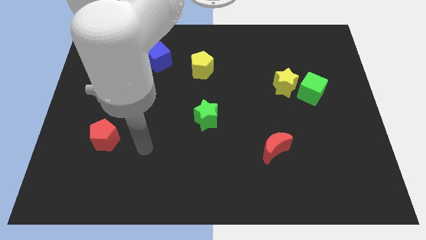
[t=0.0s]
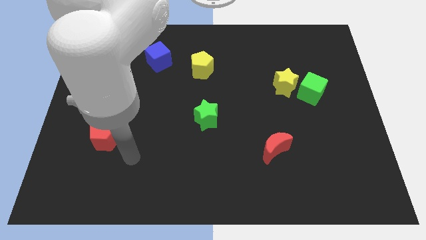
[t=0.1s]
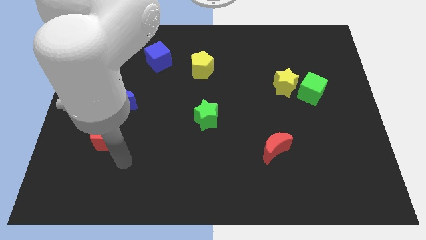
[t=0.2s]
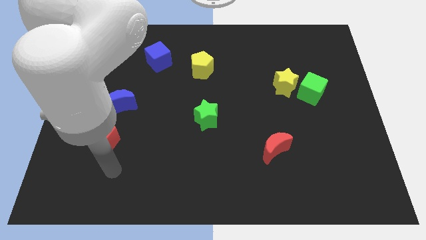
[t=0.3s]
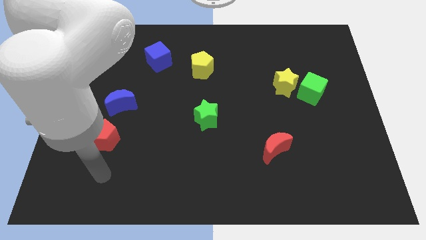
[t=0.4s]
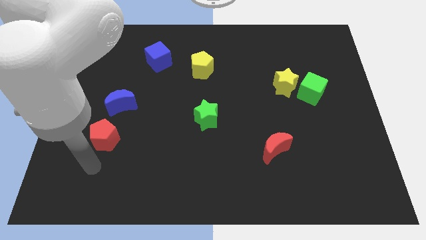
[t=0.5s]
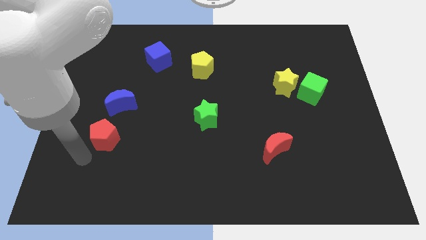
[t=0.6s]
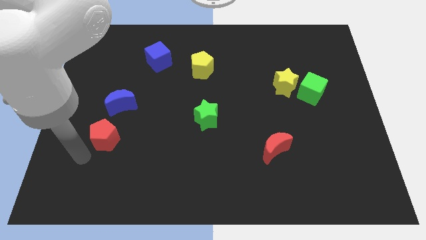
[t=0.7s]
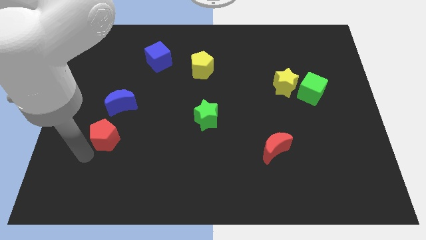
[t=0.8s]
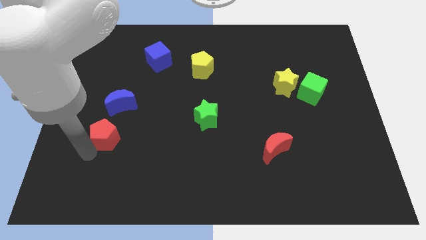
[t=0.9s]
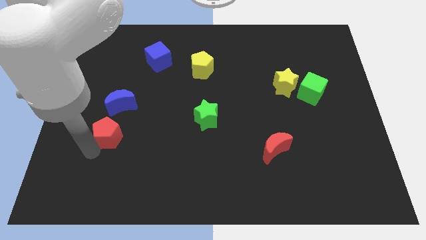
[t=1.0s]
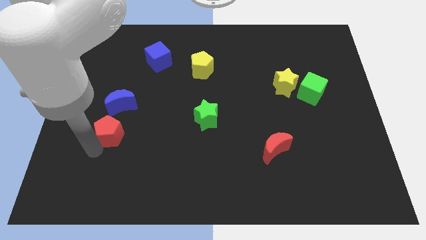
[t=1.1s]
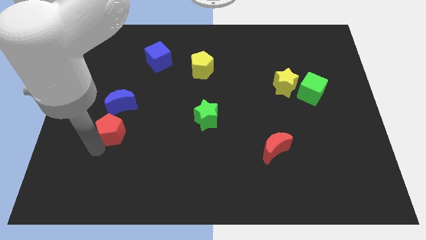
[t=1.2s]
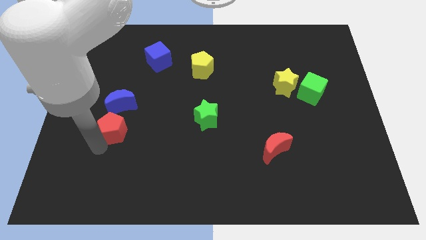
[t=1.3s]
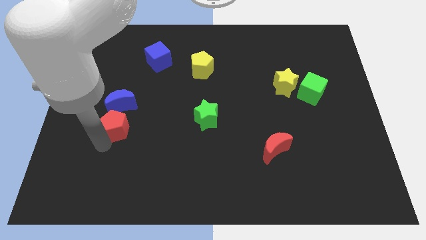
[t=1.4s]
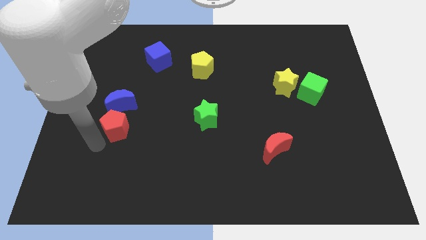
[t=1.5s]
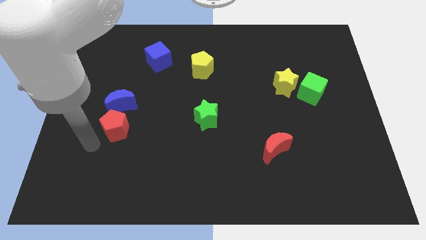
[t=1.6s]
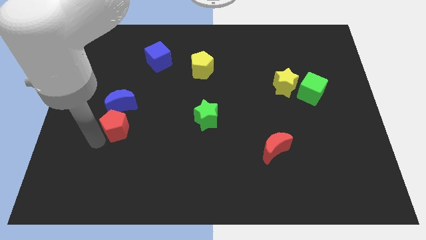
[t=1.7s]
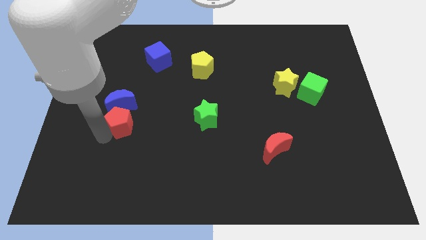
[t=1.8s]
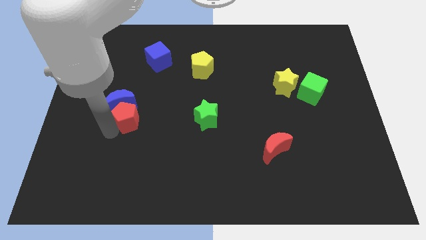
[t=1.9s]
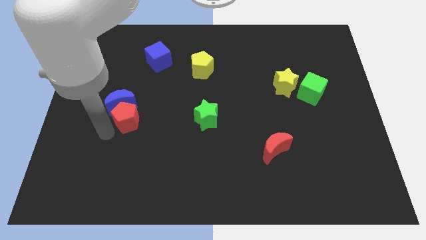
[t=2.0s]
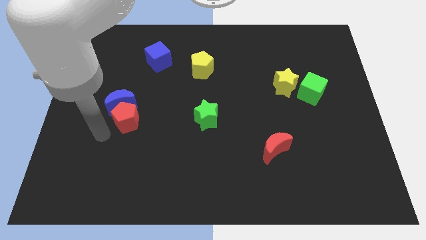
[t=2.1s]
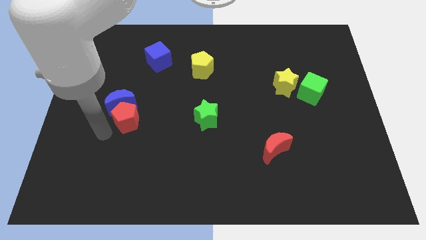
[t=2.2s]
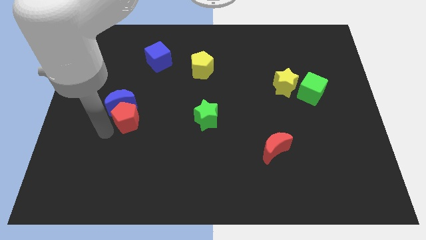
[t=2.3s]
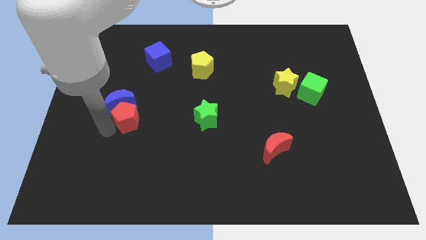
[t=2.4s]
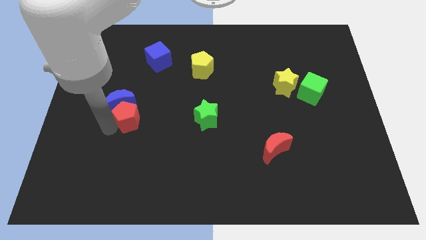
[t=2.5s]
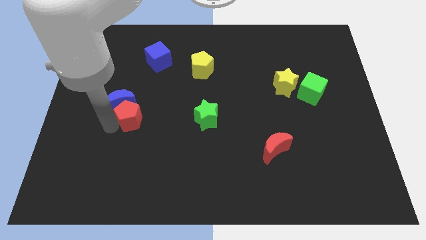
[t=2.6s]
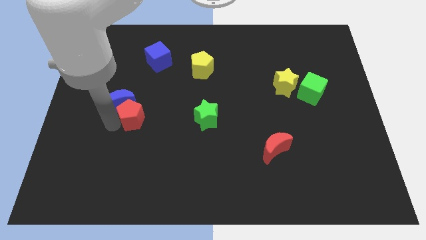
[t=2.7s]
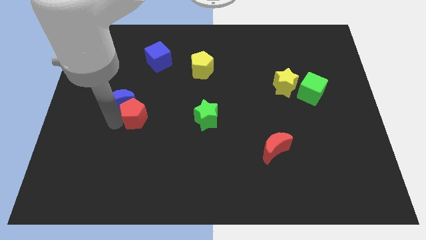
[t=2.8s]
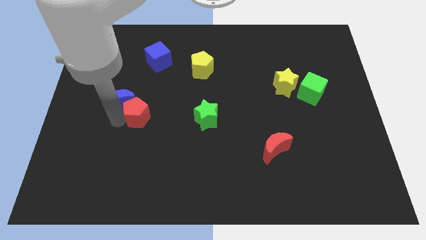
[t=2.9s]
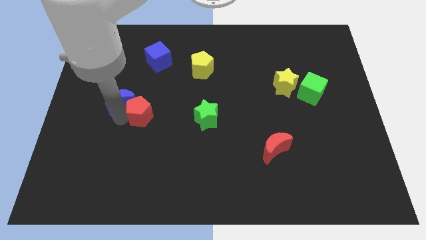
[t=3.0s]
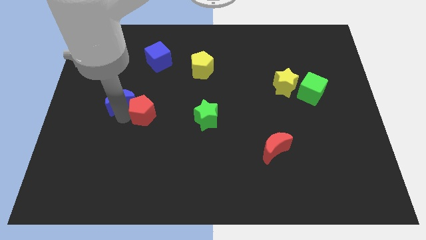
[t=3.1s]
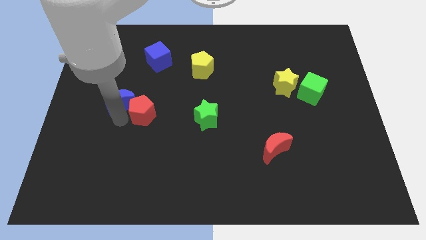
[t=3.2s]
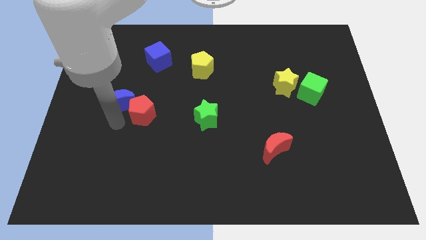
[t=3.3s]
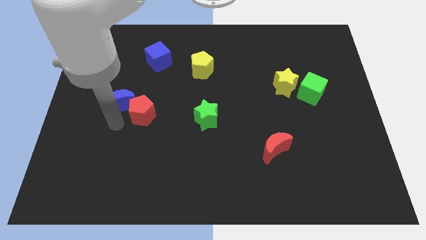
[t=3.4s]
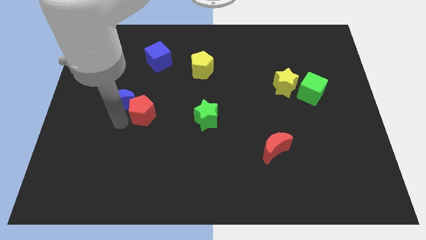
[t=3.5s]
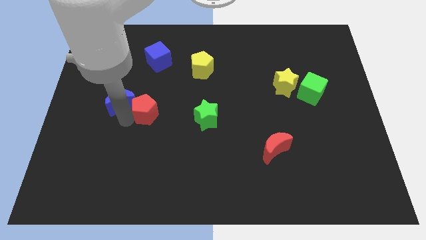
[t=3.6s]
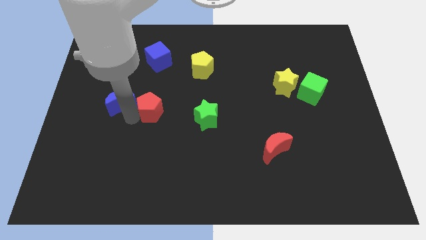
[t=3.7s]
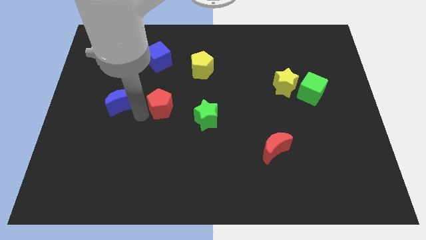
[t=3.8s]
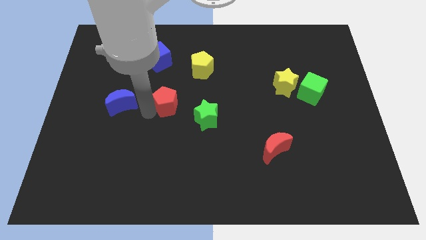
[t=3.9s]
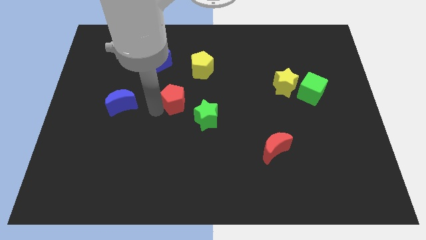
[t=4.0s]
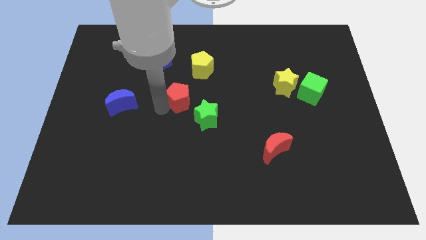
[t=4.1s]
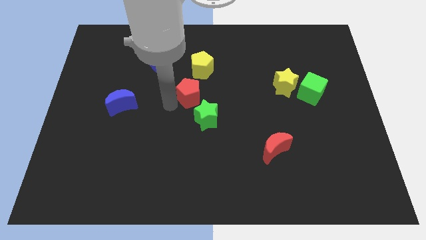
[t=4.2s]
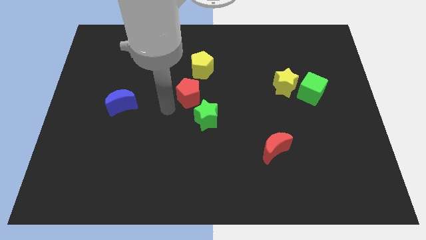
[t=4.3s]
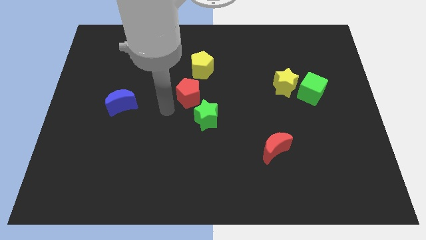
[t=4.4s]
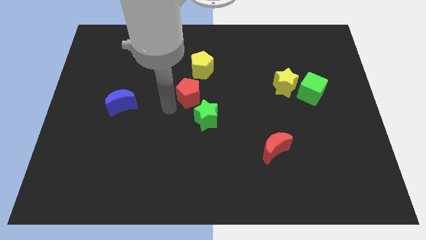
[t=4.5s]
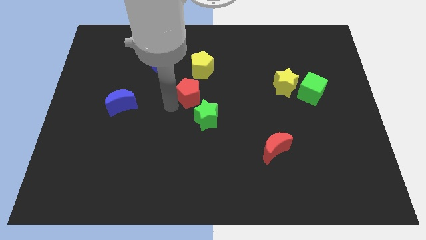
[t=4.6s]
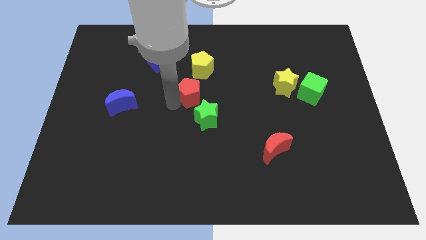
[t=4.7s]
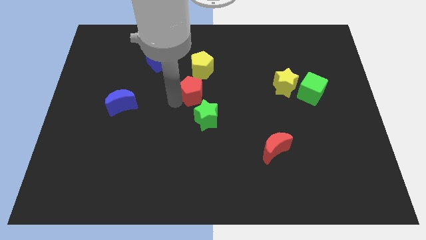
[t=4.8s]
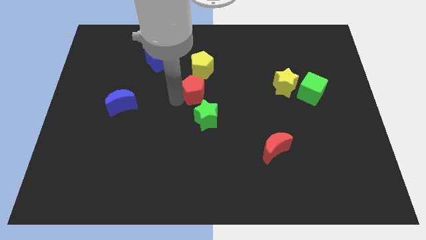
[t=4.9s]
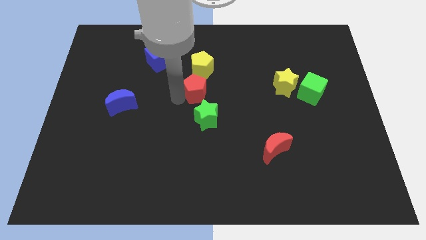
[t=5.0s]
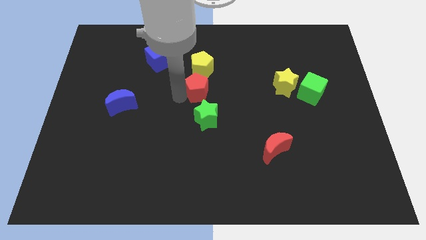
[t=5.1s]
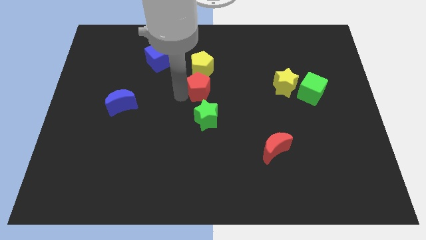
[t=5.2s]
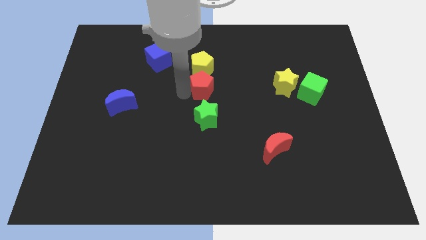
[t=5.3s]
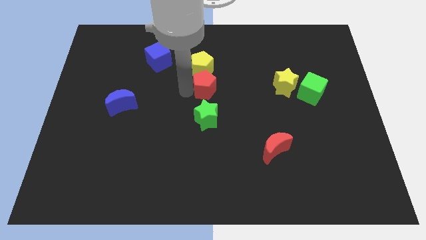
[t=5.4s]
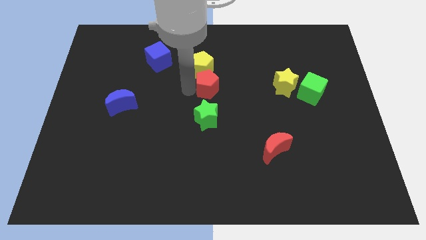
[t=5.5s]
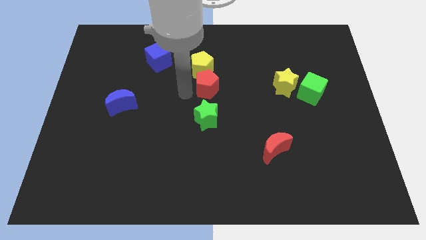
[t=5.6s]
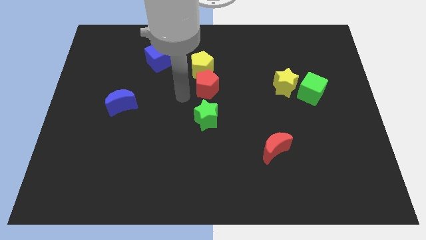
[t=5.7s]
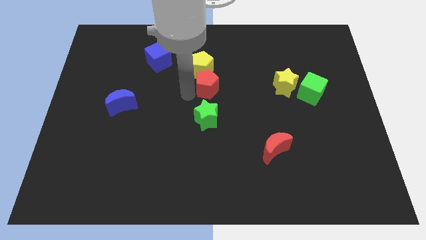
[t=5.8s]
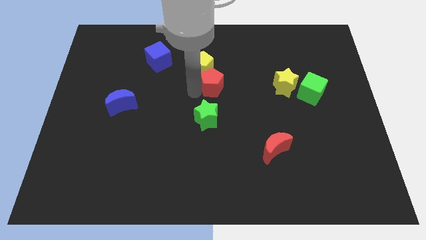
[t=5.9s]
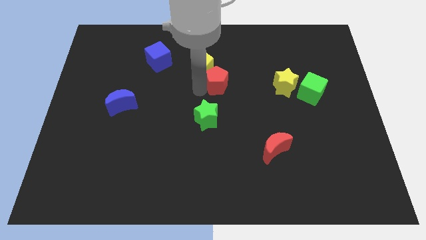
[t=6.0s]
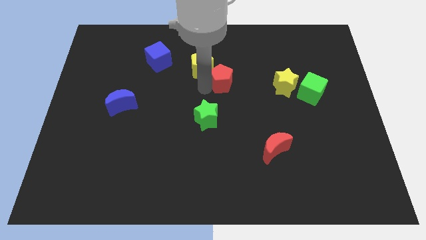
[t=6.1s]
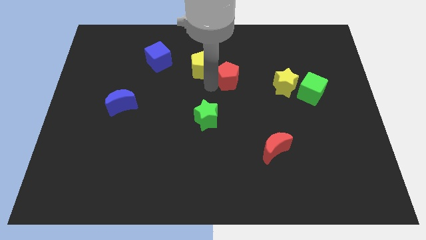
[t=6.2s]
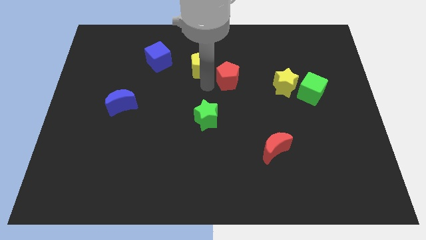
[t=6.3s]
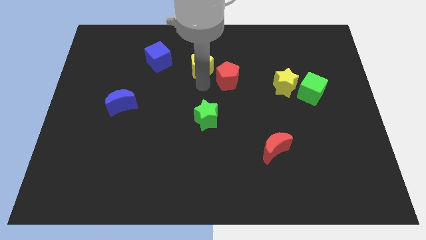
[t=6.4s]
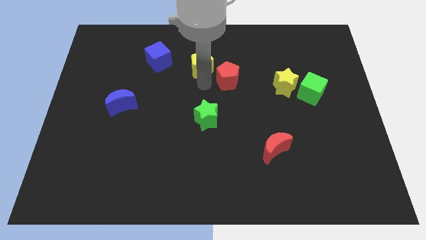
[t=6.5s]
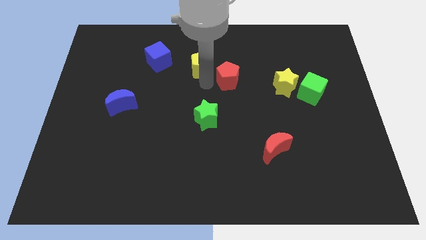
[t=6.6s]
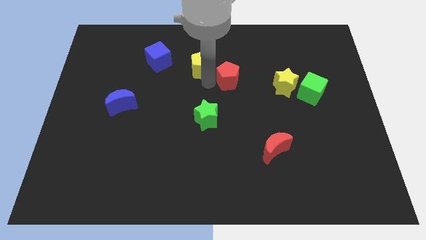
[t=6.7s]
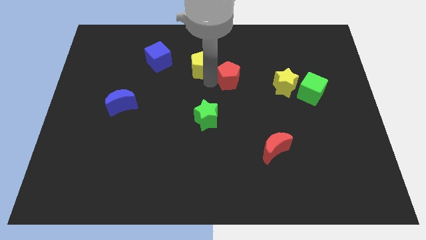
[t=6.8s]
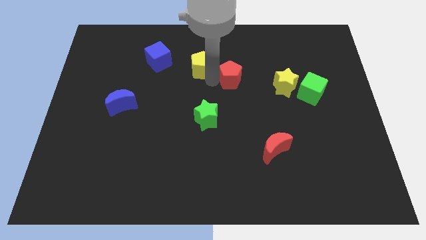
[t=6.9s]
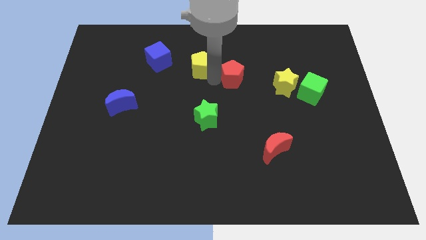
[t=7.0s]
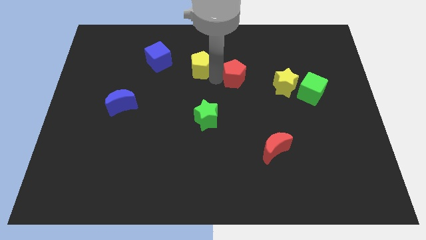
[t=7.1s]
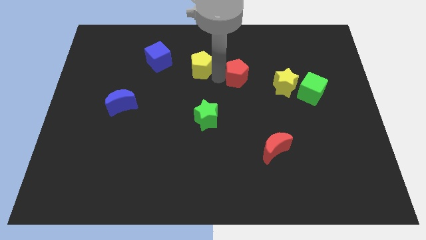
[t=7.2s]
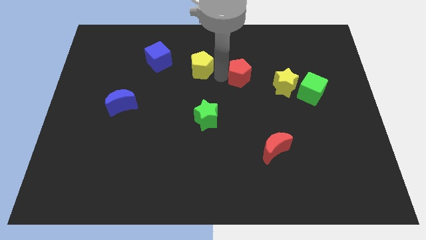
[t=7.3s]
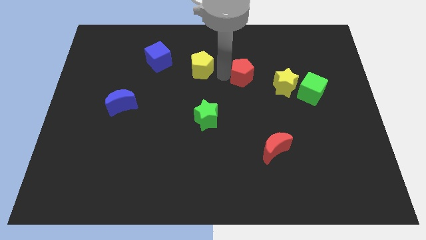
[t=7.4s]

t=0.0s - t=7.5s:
push the red pentagon to the top left of the yellow star
